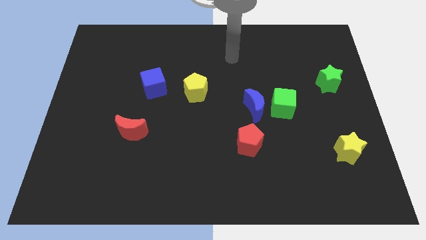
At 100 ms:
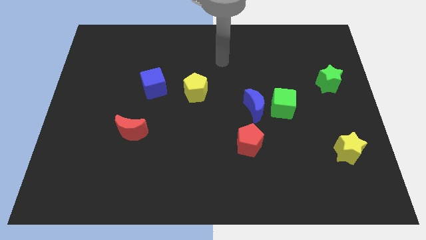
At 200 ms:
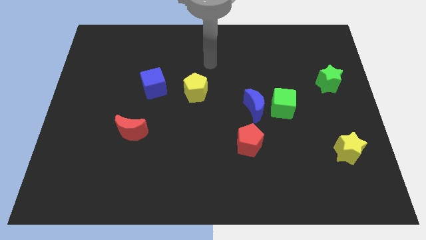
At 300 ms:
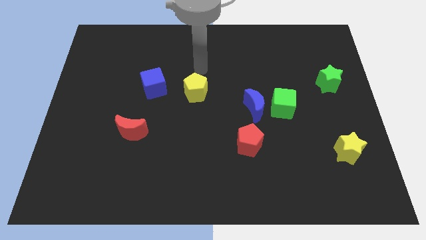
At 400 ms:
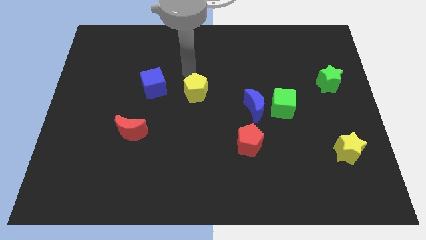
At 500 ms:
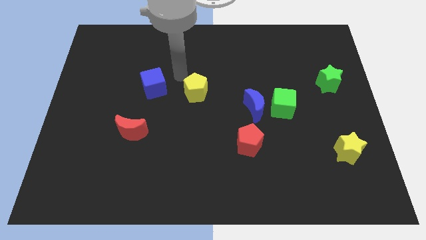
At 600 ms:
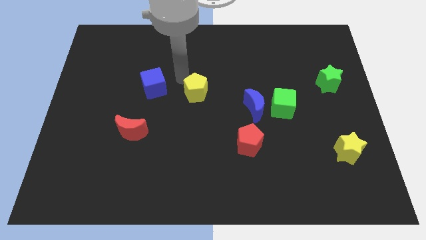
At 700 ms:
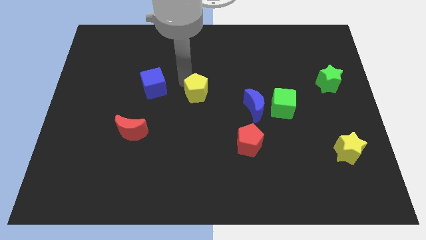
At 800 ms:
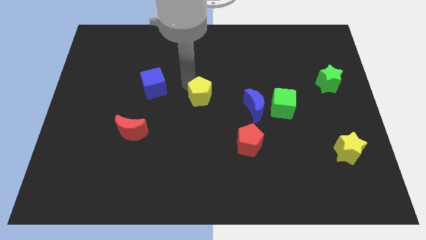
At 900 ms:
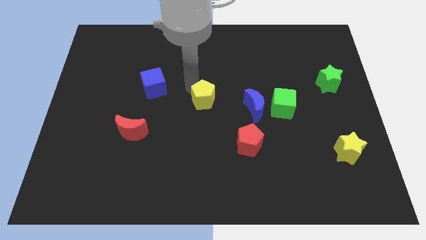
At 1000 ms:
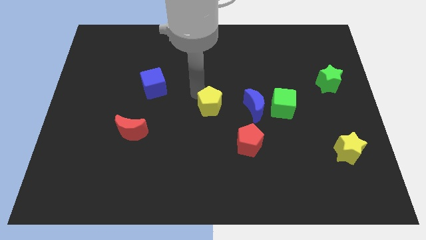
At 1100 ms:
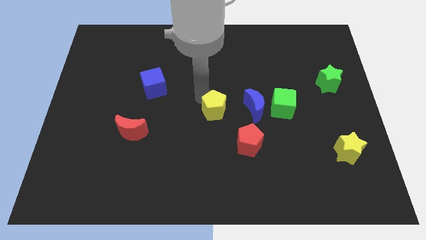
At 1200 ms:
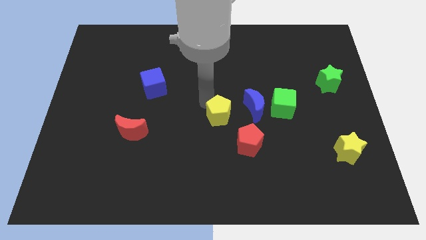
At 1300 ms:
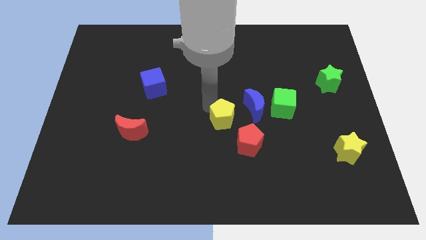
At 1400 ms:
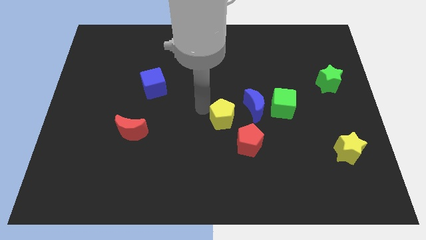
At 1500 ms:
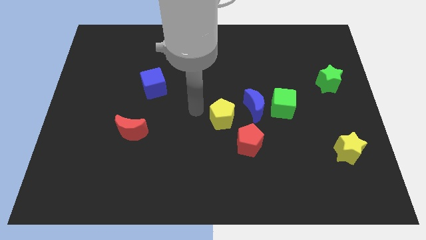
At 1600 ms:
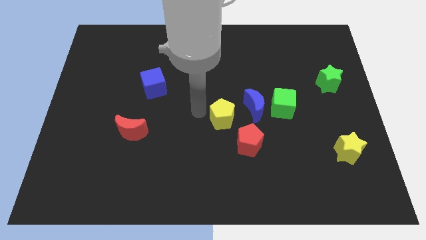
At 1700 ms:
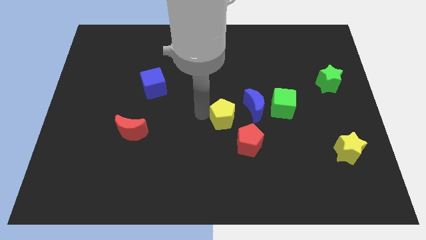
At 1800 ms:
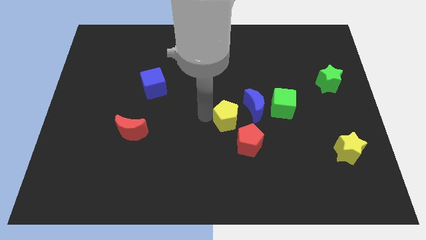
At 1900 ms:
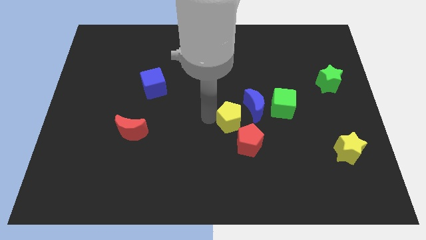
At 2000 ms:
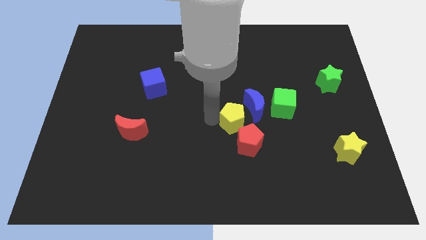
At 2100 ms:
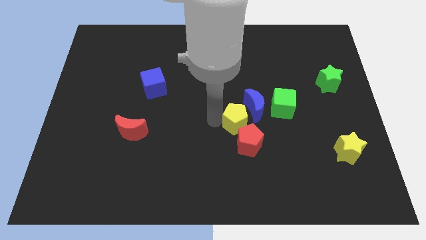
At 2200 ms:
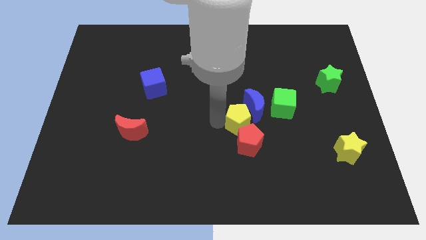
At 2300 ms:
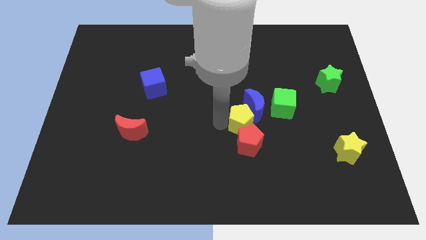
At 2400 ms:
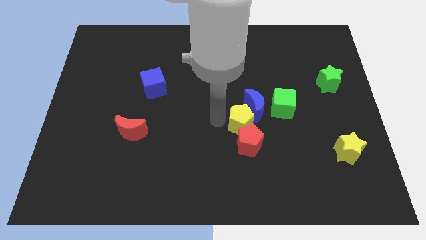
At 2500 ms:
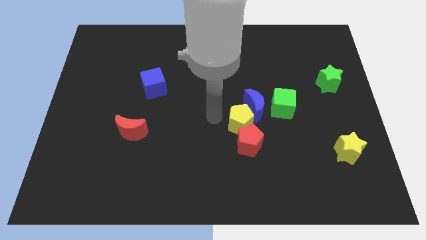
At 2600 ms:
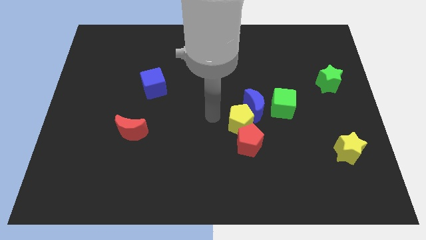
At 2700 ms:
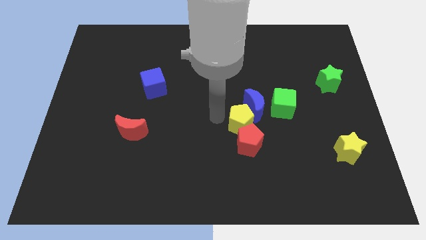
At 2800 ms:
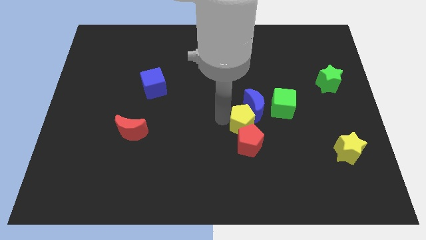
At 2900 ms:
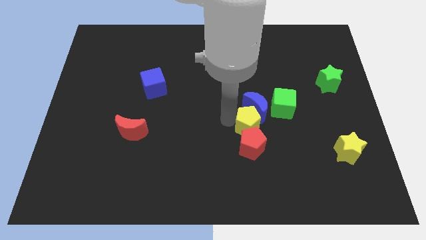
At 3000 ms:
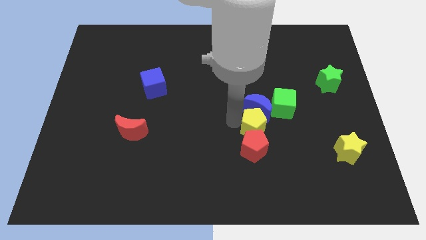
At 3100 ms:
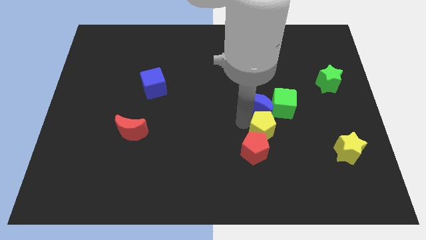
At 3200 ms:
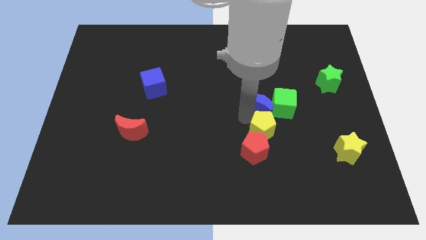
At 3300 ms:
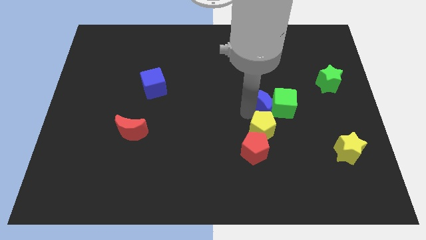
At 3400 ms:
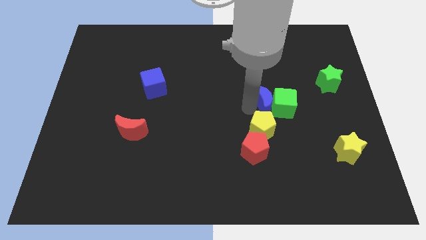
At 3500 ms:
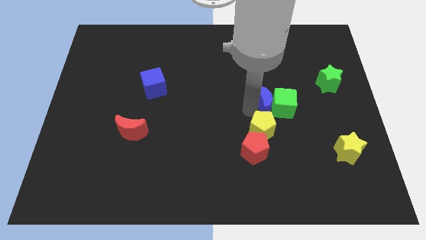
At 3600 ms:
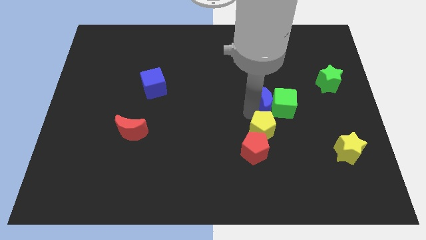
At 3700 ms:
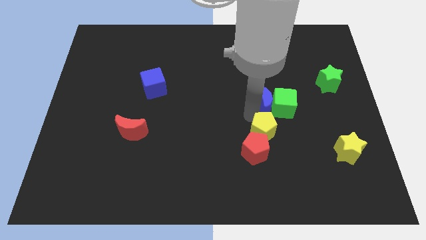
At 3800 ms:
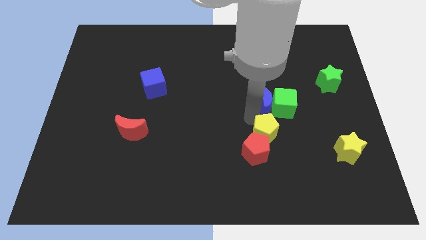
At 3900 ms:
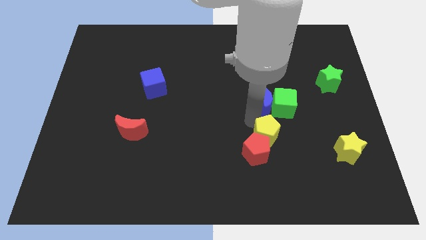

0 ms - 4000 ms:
slide the yellow pentagon downwards and right

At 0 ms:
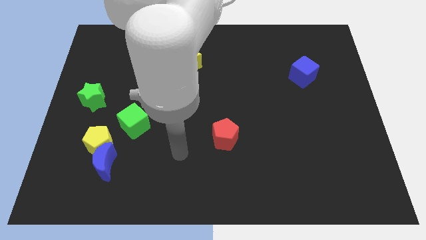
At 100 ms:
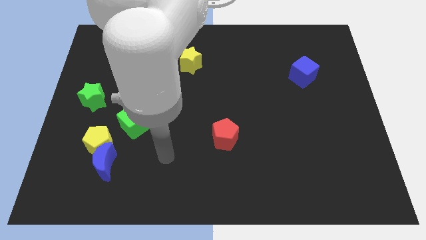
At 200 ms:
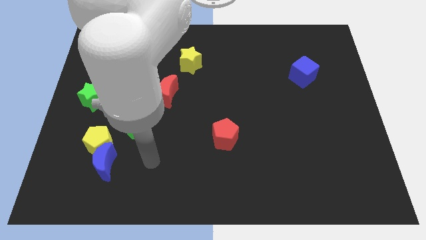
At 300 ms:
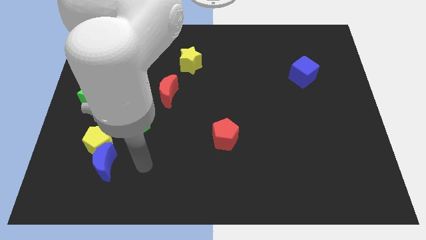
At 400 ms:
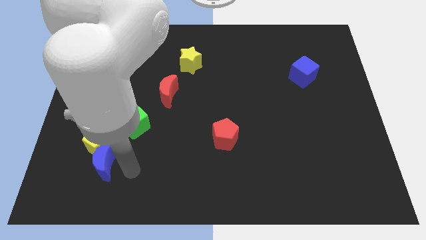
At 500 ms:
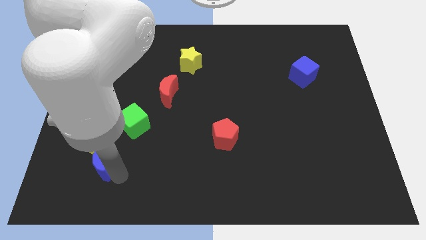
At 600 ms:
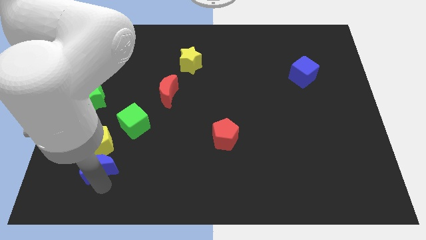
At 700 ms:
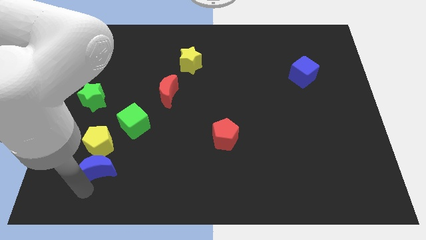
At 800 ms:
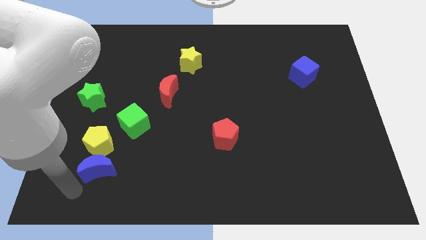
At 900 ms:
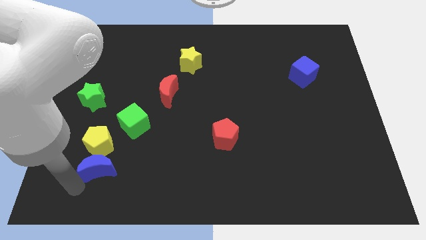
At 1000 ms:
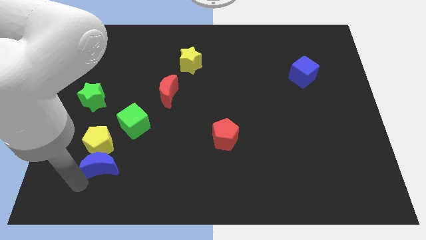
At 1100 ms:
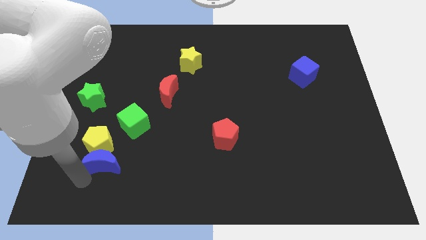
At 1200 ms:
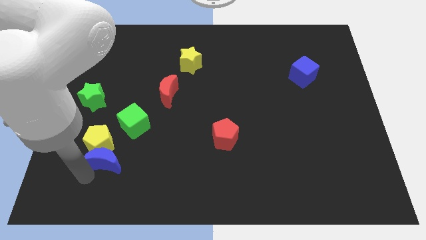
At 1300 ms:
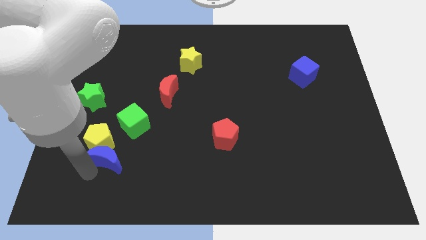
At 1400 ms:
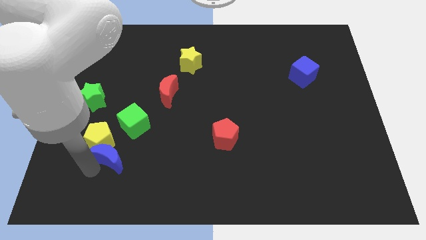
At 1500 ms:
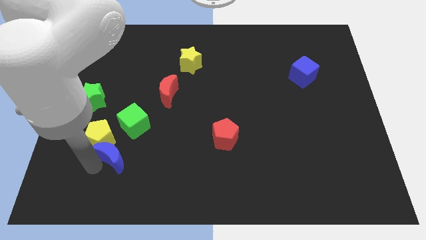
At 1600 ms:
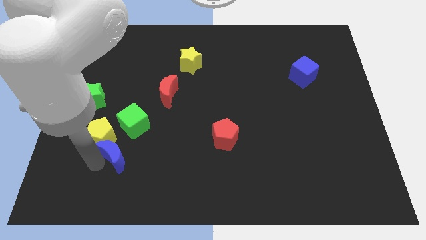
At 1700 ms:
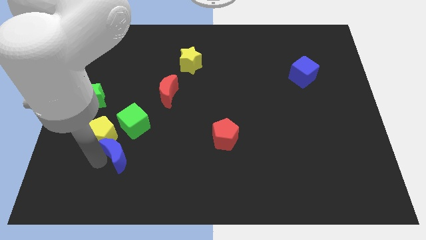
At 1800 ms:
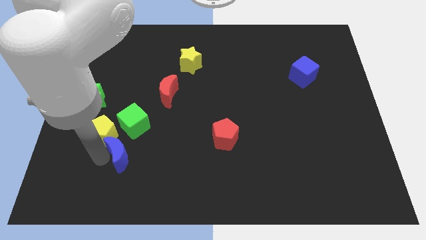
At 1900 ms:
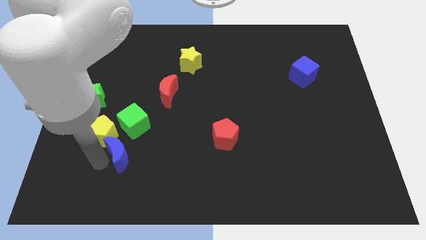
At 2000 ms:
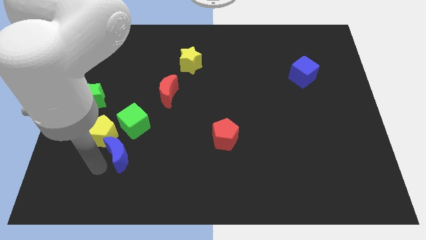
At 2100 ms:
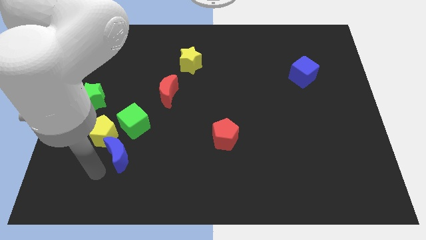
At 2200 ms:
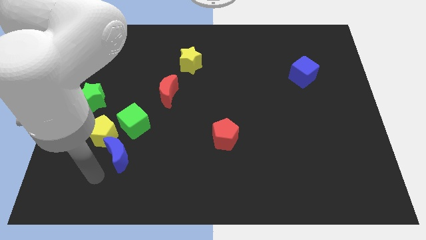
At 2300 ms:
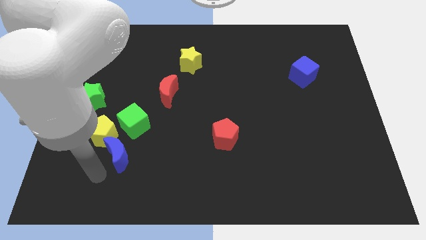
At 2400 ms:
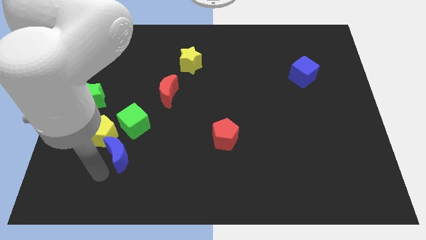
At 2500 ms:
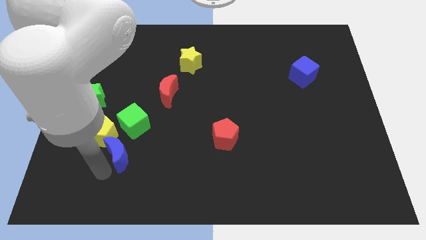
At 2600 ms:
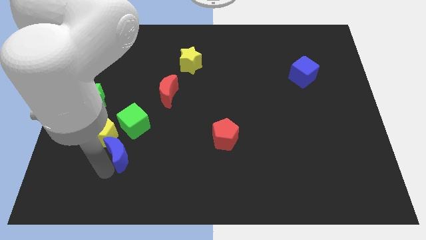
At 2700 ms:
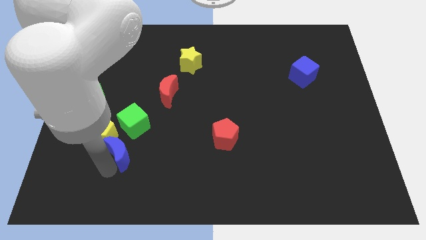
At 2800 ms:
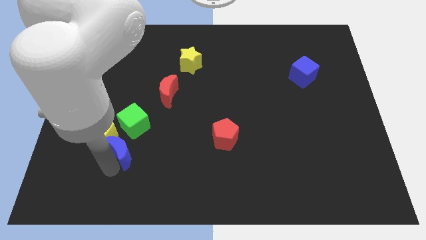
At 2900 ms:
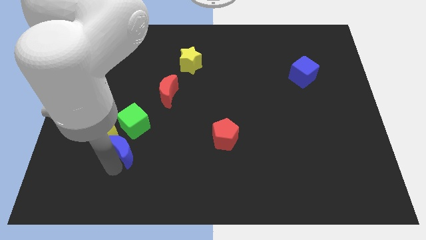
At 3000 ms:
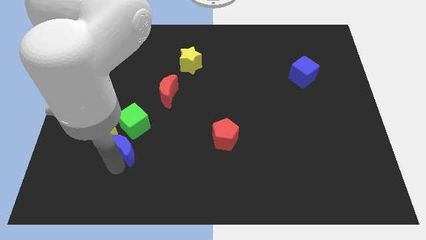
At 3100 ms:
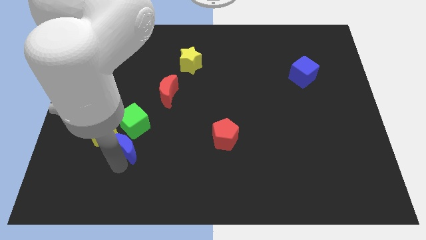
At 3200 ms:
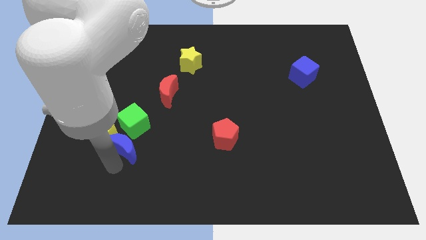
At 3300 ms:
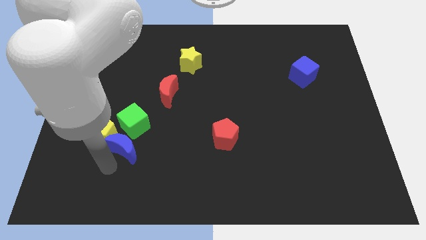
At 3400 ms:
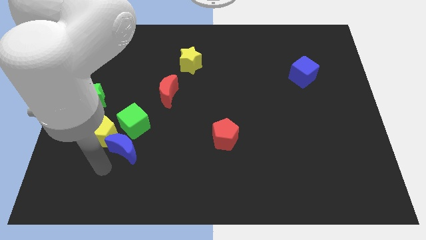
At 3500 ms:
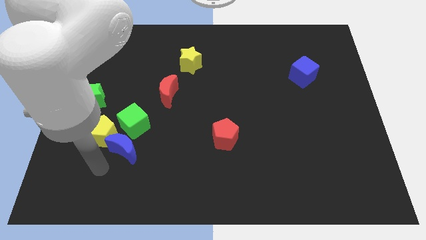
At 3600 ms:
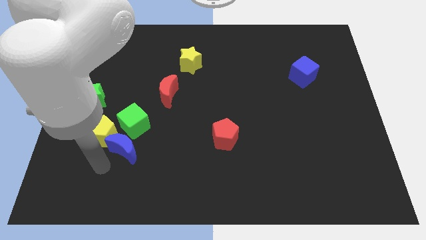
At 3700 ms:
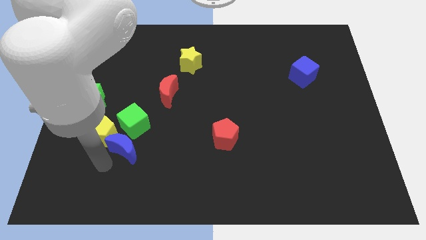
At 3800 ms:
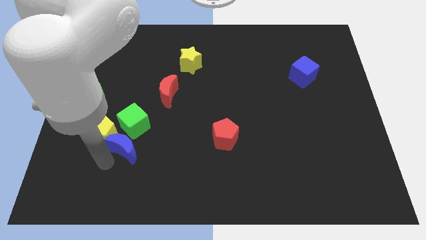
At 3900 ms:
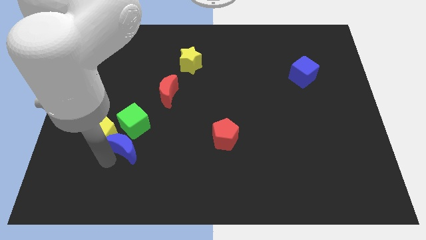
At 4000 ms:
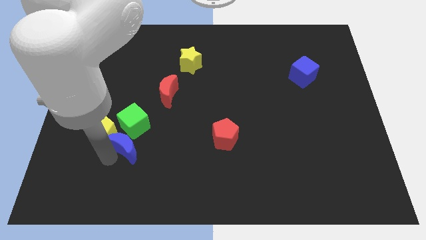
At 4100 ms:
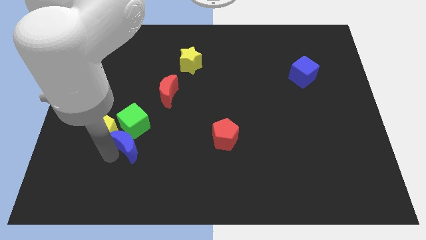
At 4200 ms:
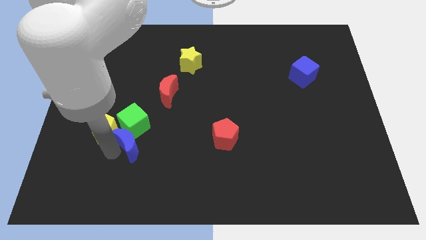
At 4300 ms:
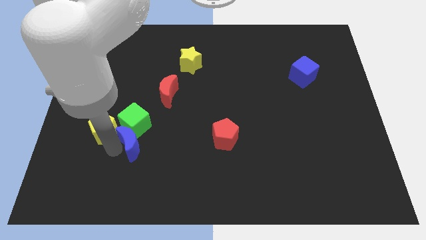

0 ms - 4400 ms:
push the blue moon a little upwards and then right
